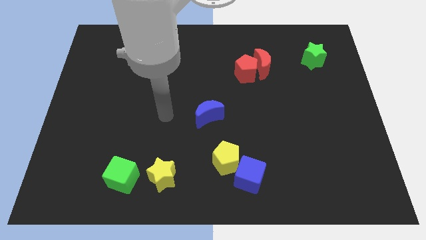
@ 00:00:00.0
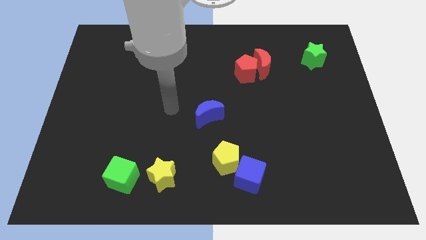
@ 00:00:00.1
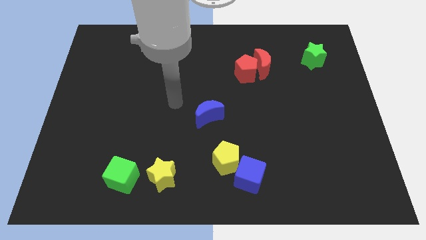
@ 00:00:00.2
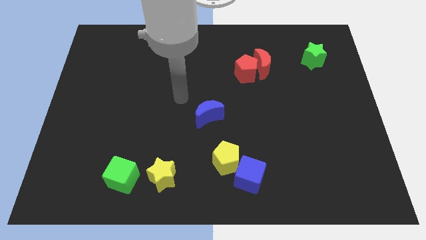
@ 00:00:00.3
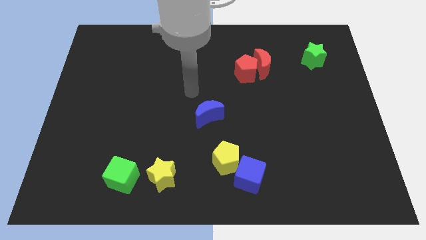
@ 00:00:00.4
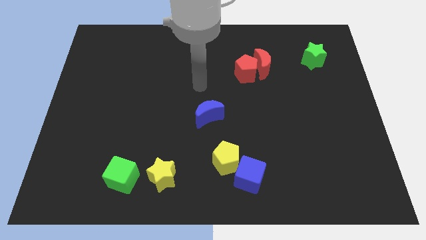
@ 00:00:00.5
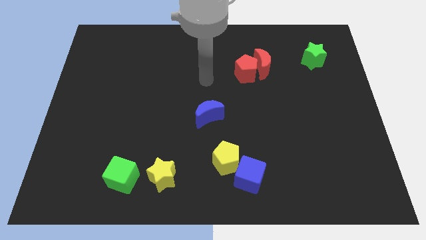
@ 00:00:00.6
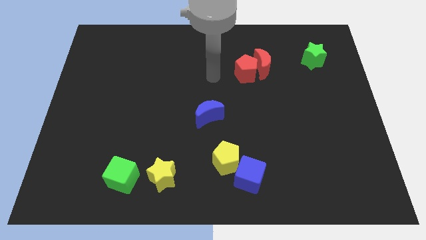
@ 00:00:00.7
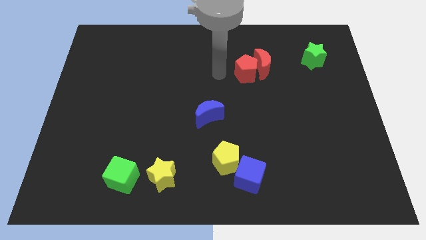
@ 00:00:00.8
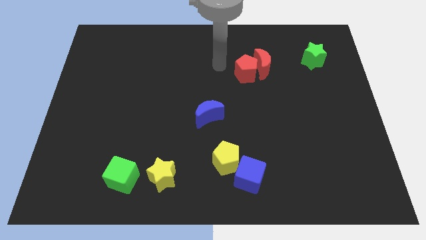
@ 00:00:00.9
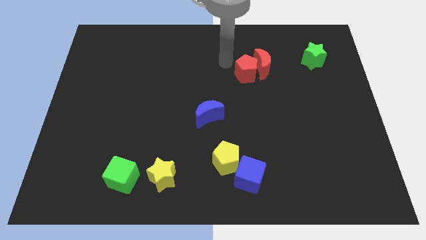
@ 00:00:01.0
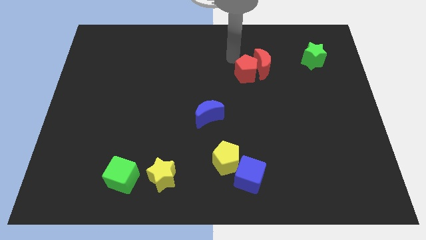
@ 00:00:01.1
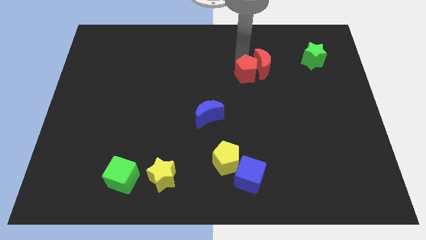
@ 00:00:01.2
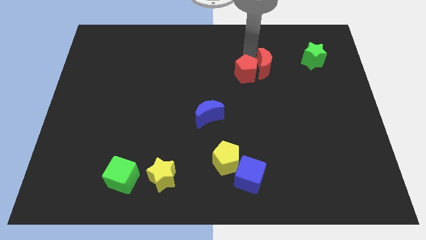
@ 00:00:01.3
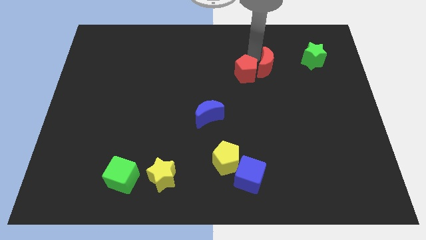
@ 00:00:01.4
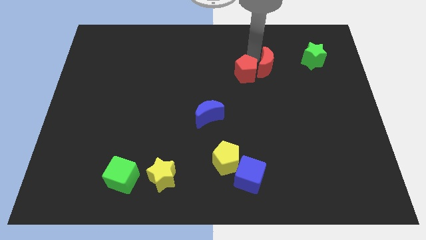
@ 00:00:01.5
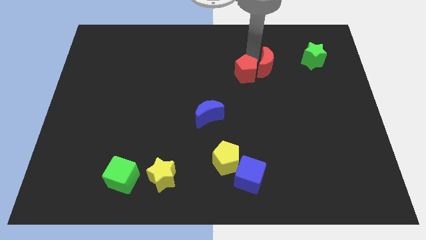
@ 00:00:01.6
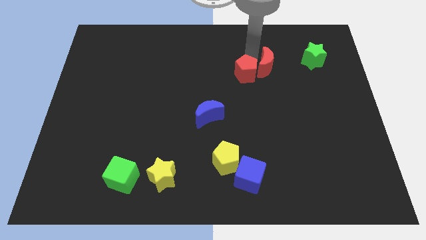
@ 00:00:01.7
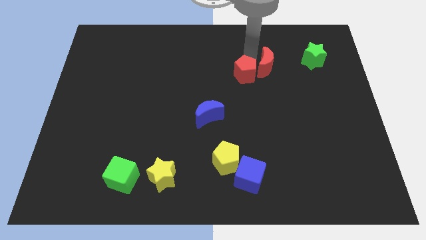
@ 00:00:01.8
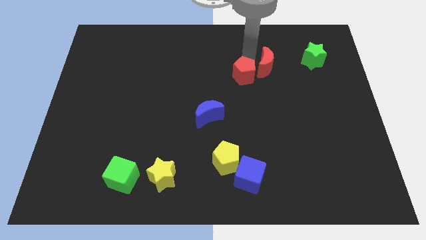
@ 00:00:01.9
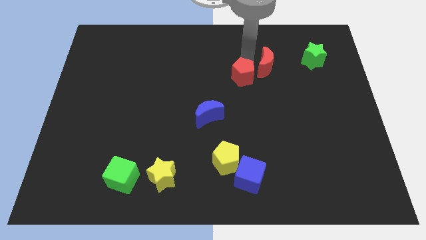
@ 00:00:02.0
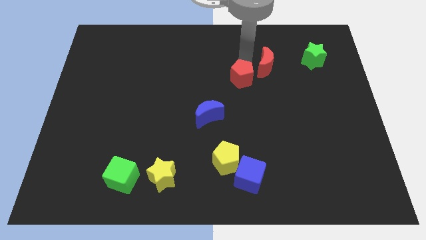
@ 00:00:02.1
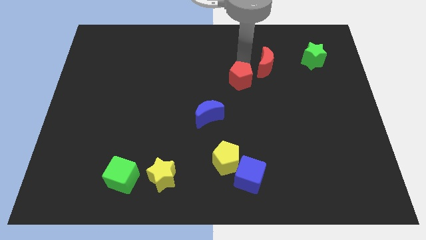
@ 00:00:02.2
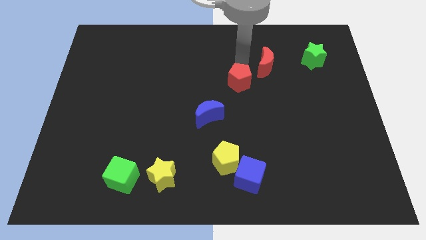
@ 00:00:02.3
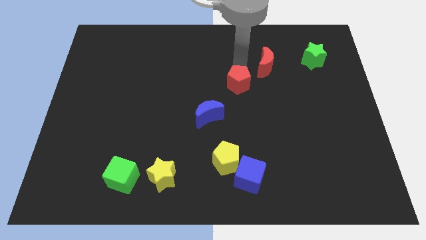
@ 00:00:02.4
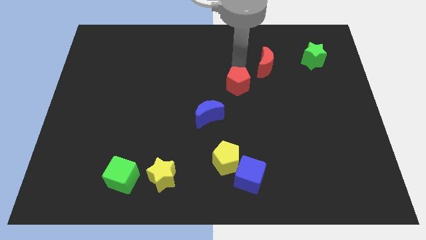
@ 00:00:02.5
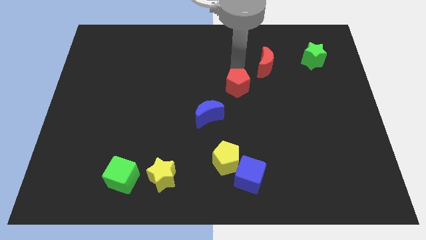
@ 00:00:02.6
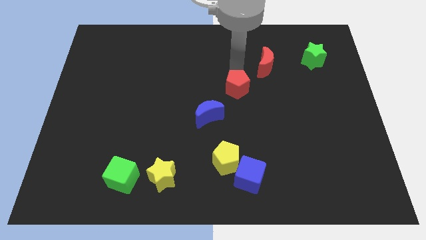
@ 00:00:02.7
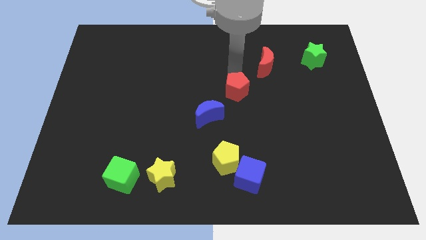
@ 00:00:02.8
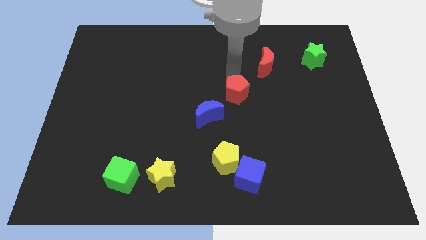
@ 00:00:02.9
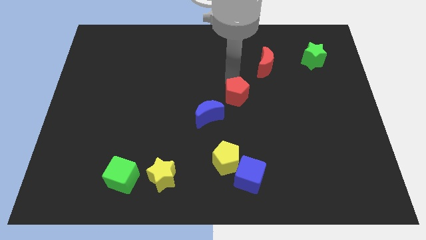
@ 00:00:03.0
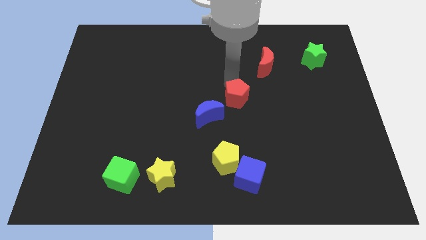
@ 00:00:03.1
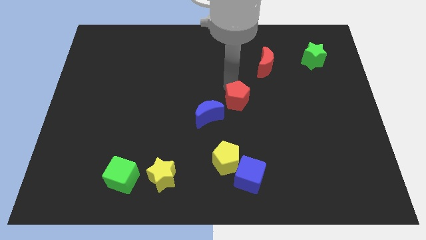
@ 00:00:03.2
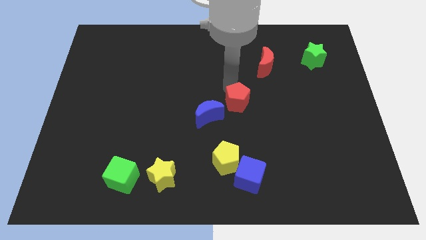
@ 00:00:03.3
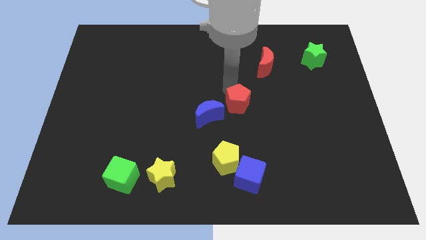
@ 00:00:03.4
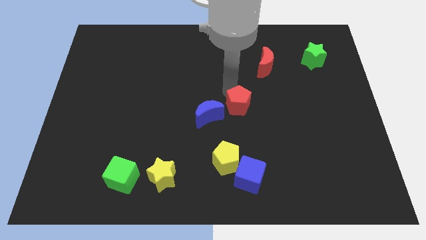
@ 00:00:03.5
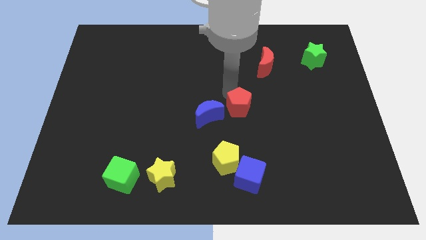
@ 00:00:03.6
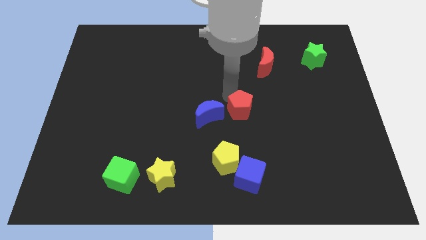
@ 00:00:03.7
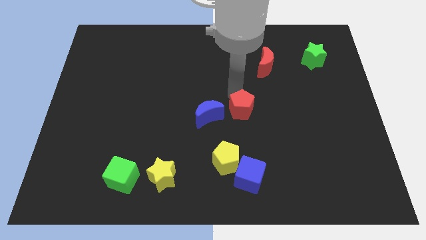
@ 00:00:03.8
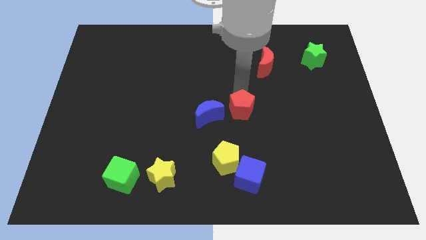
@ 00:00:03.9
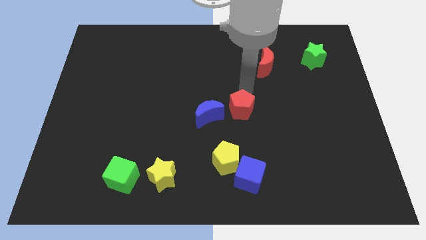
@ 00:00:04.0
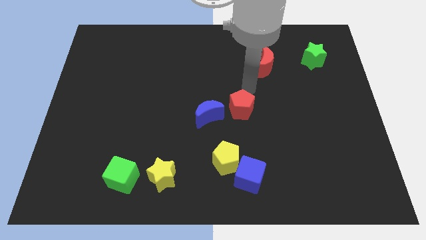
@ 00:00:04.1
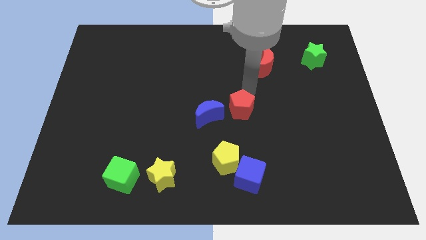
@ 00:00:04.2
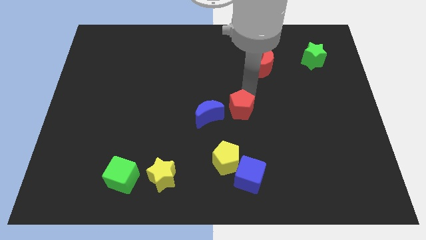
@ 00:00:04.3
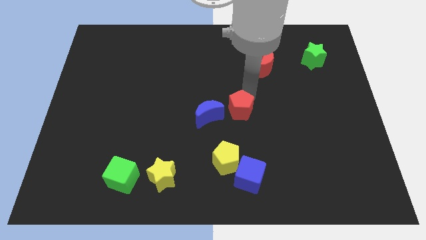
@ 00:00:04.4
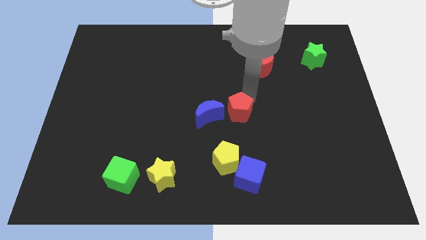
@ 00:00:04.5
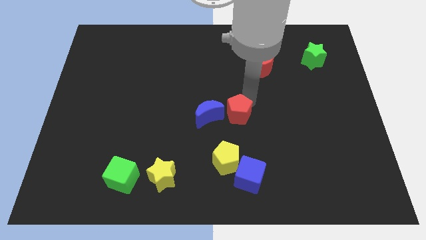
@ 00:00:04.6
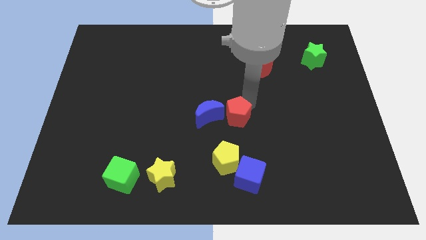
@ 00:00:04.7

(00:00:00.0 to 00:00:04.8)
move the red pentagon diagonally down and to the right of the blue moon

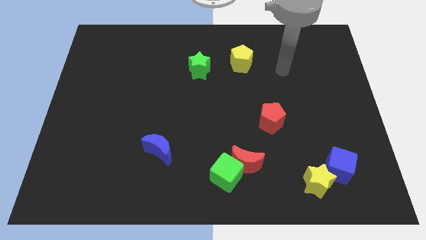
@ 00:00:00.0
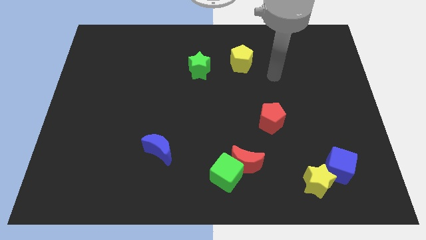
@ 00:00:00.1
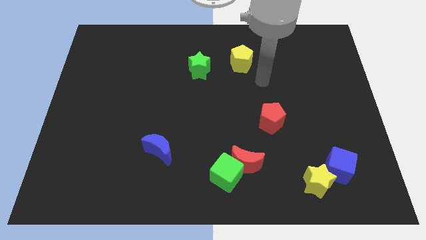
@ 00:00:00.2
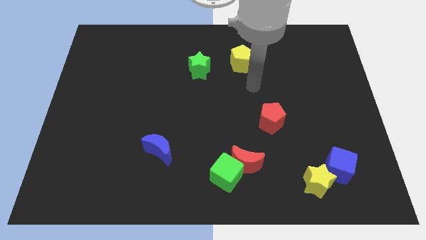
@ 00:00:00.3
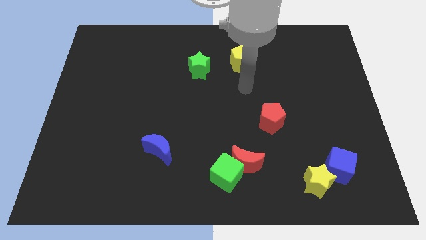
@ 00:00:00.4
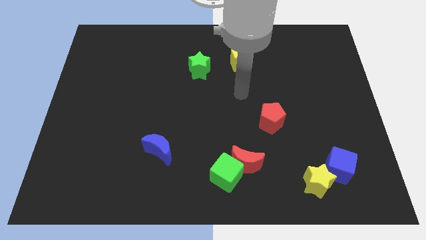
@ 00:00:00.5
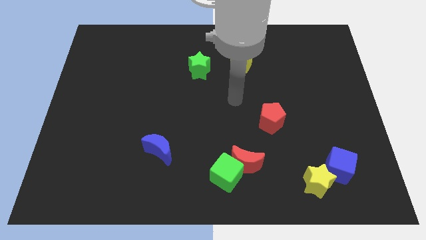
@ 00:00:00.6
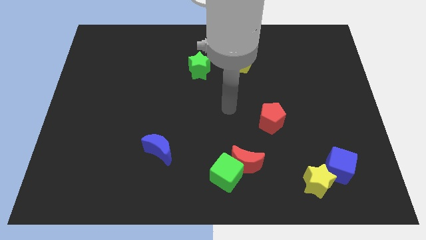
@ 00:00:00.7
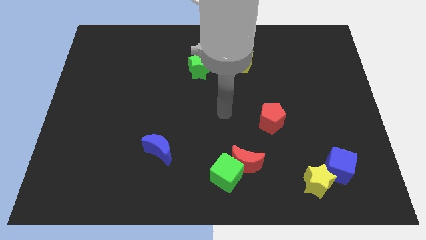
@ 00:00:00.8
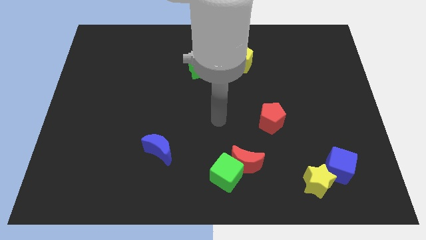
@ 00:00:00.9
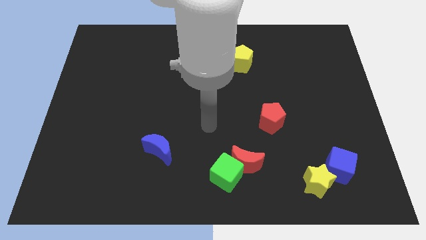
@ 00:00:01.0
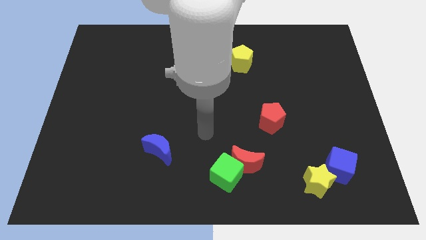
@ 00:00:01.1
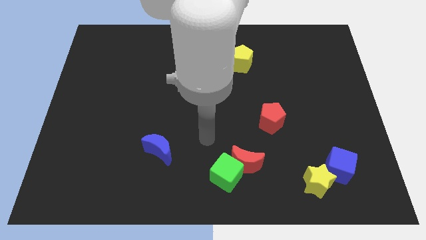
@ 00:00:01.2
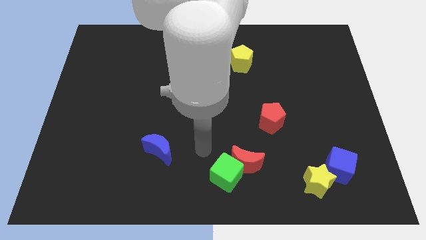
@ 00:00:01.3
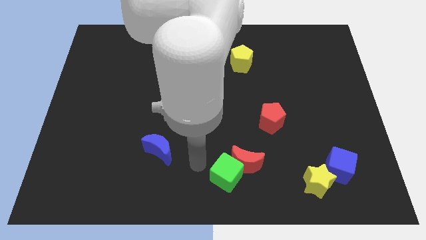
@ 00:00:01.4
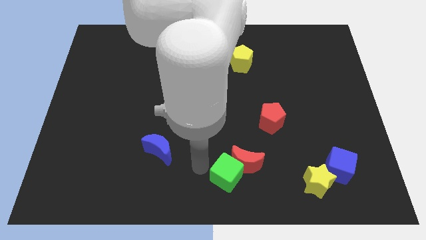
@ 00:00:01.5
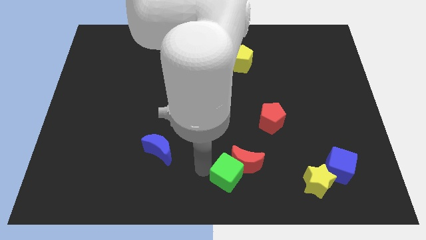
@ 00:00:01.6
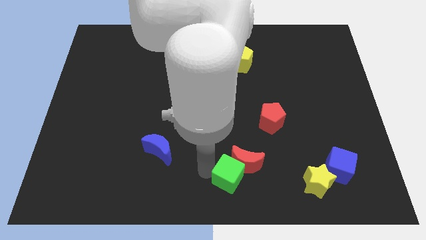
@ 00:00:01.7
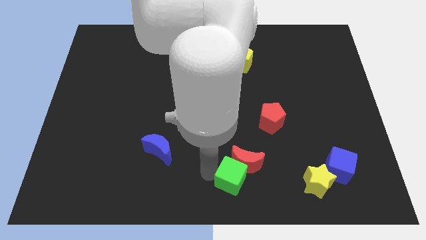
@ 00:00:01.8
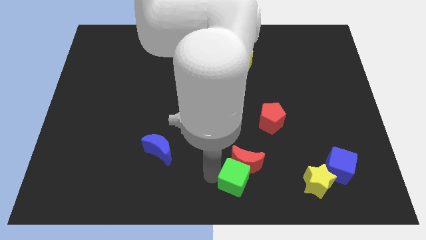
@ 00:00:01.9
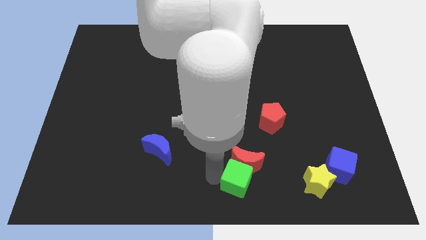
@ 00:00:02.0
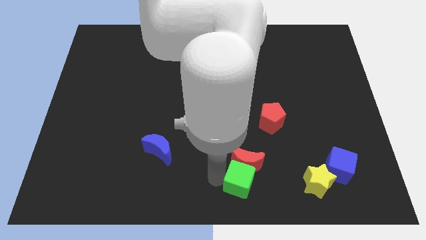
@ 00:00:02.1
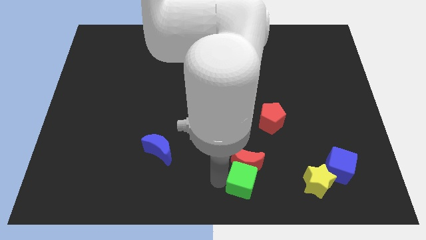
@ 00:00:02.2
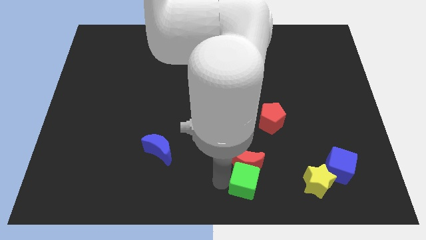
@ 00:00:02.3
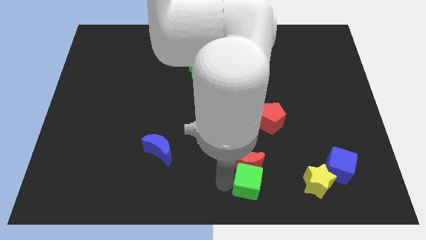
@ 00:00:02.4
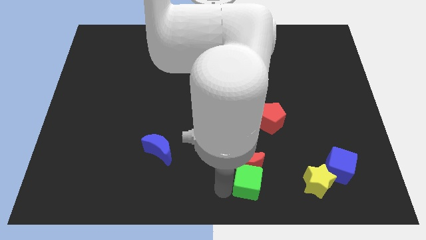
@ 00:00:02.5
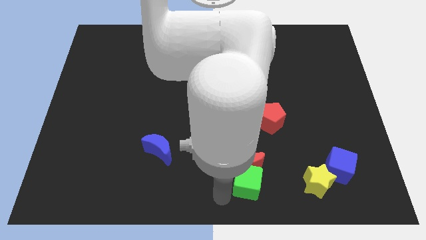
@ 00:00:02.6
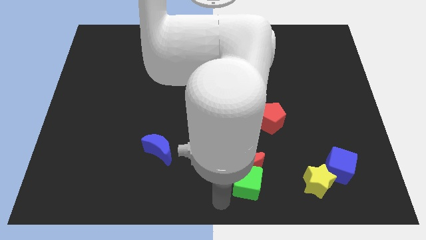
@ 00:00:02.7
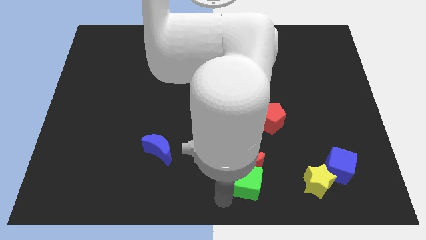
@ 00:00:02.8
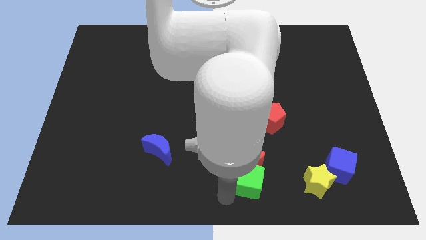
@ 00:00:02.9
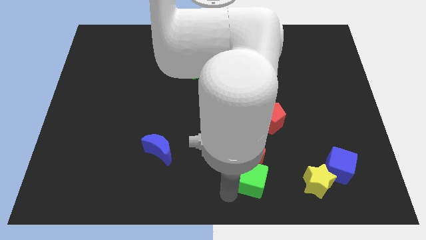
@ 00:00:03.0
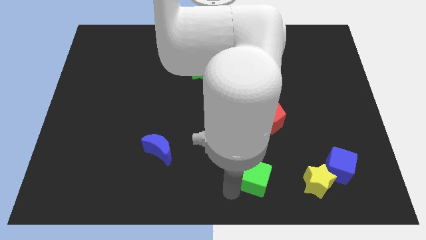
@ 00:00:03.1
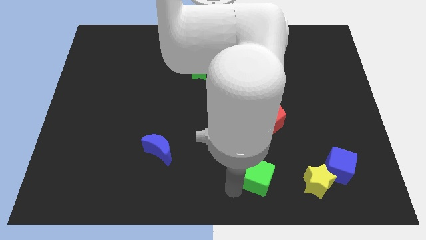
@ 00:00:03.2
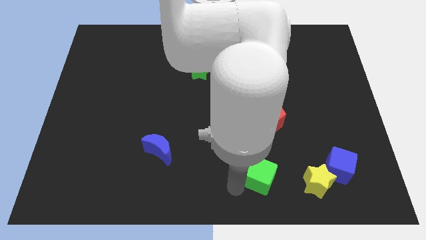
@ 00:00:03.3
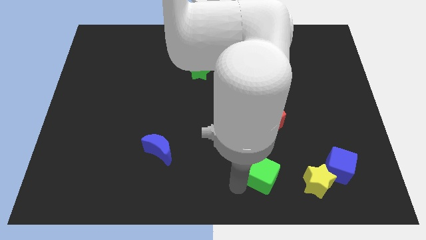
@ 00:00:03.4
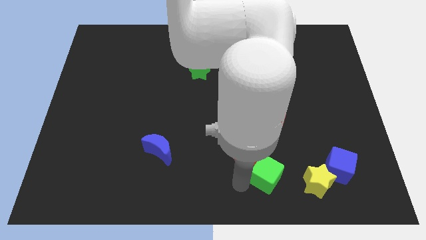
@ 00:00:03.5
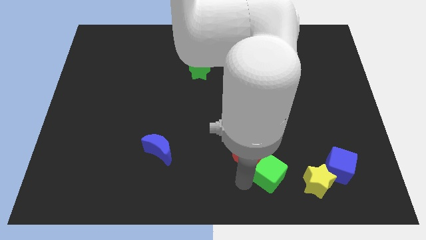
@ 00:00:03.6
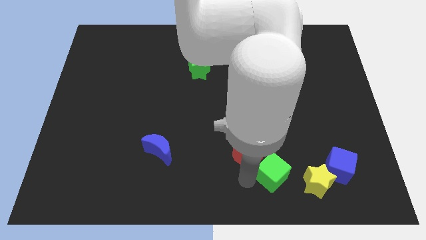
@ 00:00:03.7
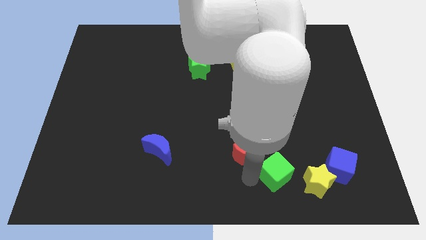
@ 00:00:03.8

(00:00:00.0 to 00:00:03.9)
move the green cube to the top left of the yellow star
